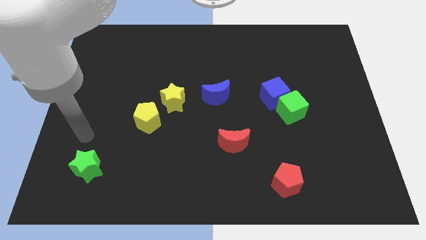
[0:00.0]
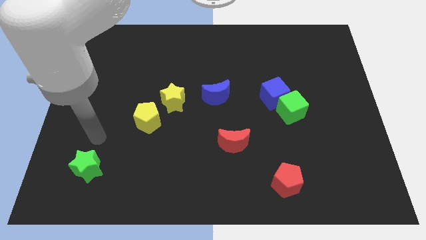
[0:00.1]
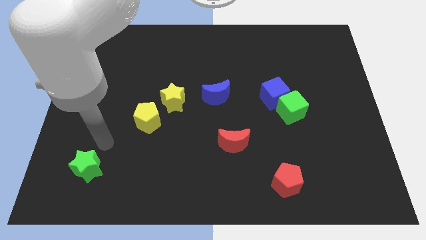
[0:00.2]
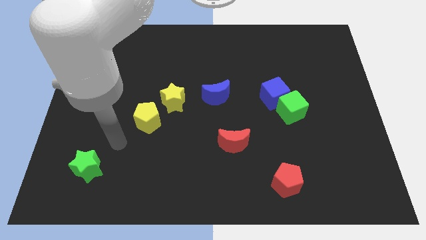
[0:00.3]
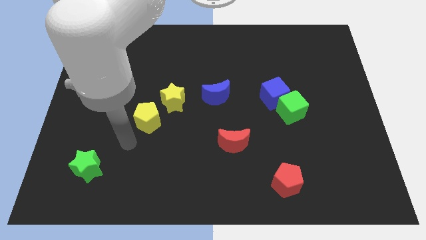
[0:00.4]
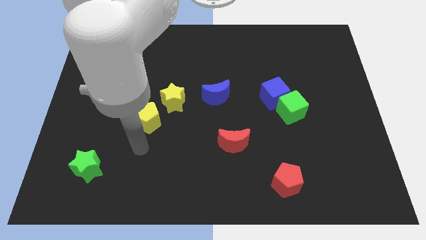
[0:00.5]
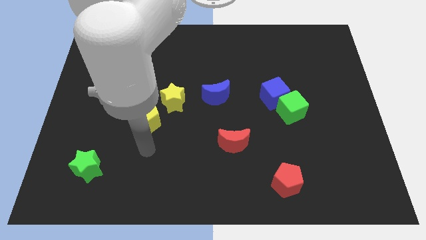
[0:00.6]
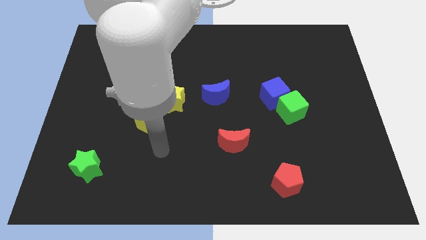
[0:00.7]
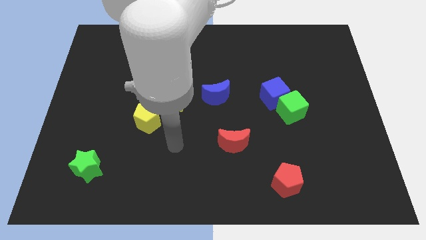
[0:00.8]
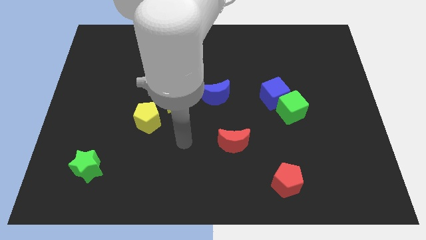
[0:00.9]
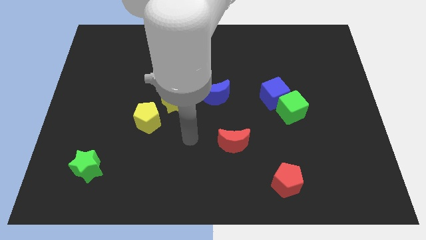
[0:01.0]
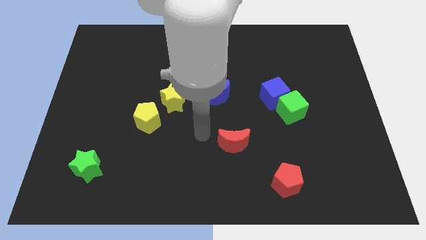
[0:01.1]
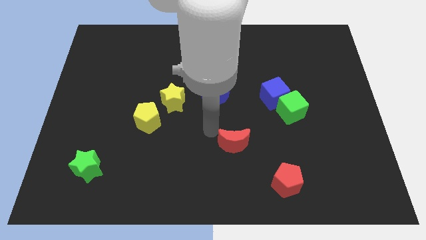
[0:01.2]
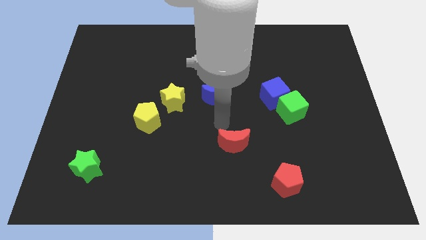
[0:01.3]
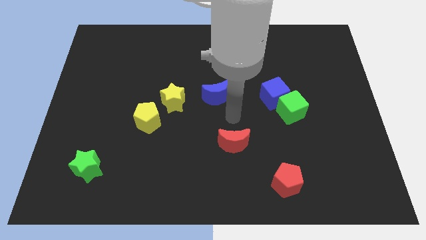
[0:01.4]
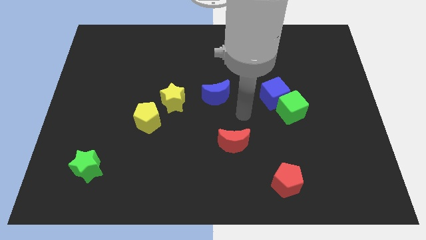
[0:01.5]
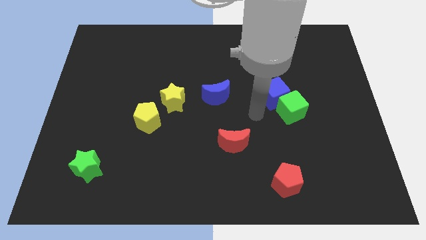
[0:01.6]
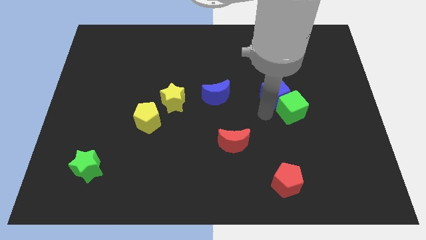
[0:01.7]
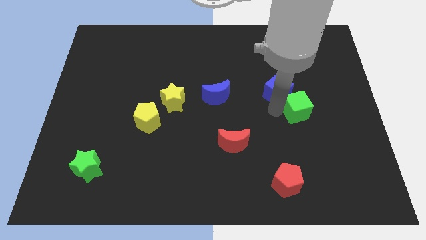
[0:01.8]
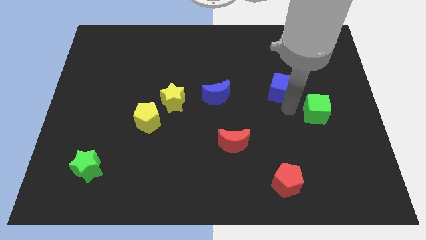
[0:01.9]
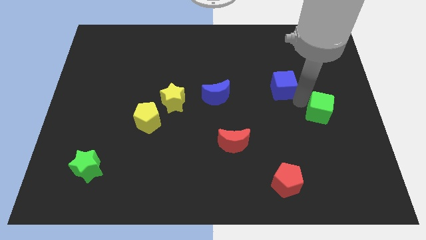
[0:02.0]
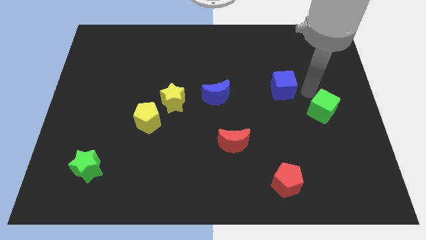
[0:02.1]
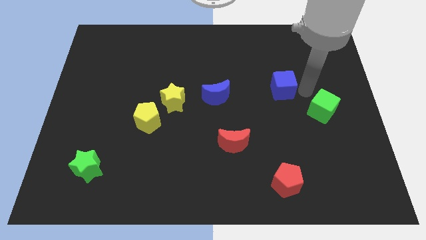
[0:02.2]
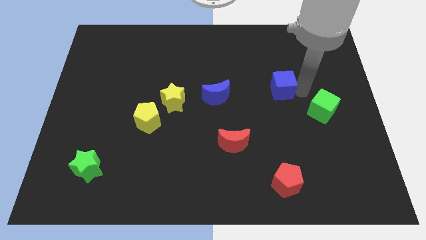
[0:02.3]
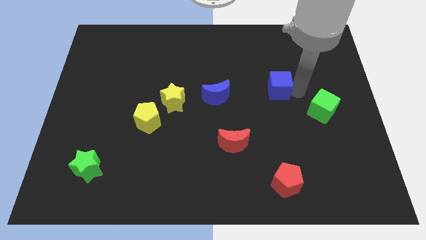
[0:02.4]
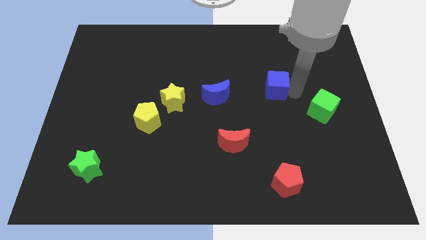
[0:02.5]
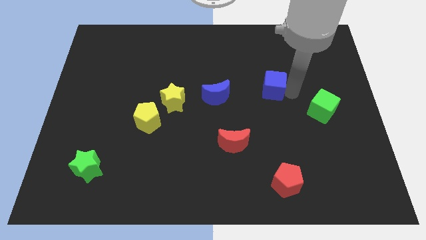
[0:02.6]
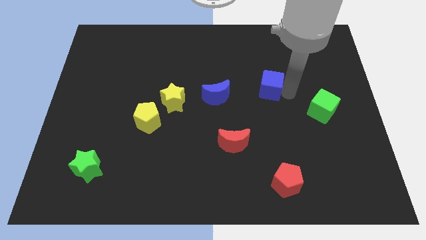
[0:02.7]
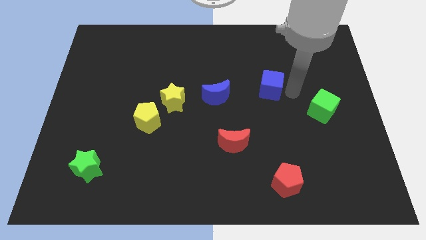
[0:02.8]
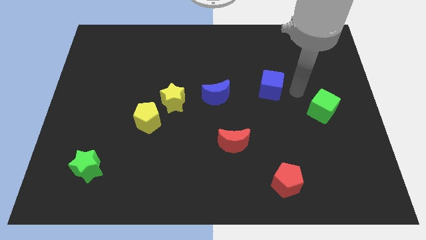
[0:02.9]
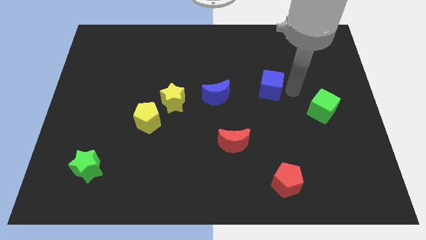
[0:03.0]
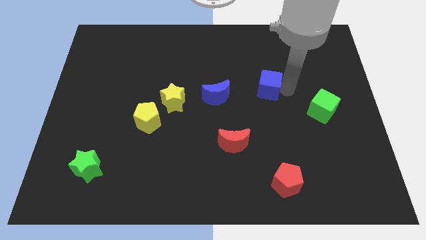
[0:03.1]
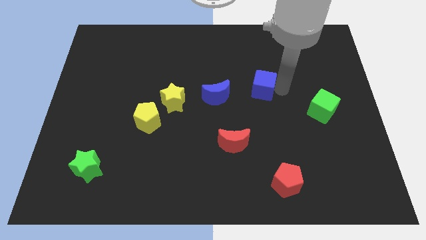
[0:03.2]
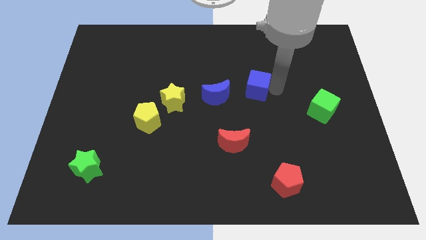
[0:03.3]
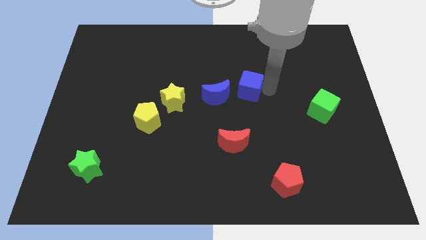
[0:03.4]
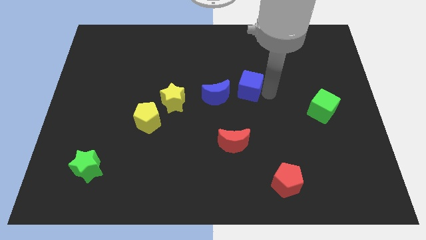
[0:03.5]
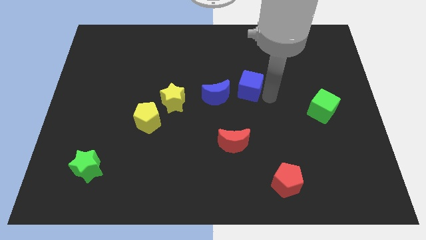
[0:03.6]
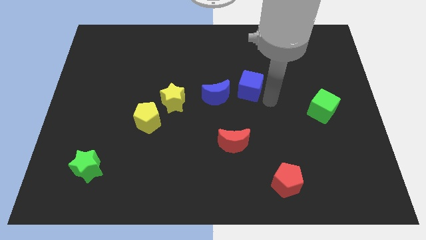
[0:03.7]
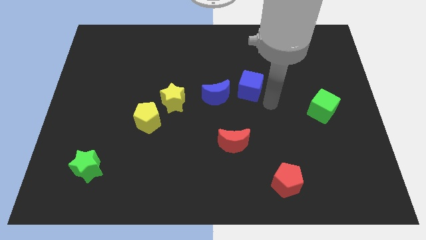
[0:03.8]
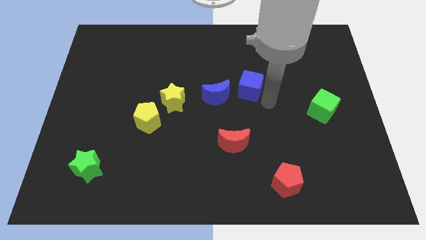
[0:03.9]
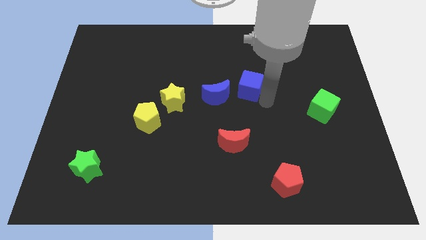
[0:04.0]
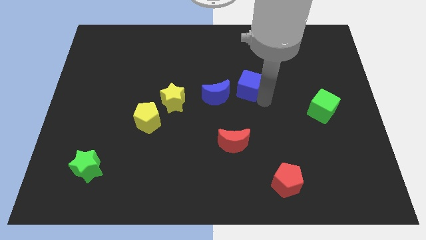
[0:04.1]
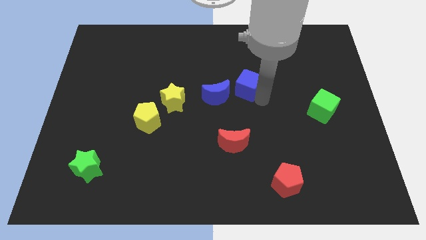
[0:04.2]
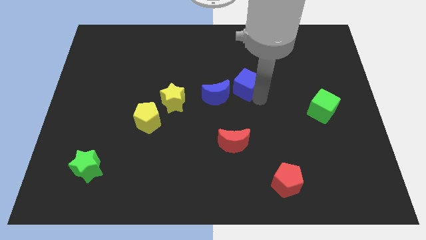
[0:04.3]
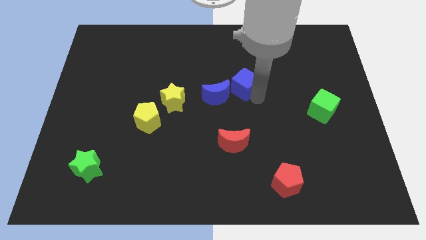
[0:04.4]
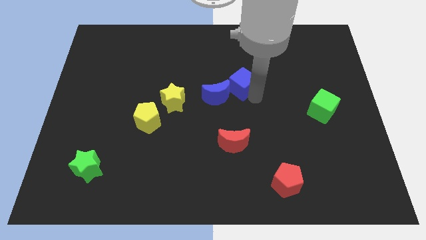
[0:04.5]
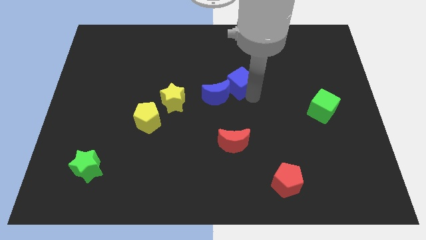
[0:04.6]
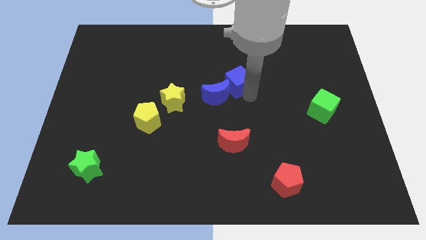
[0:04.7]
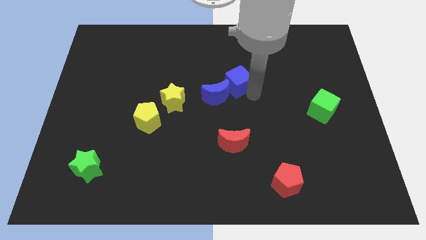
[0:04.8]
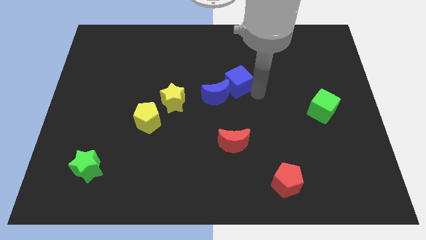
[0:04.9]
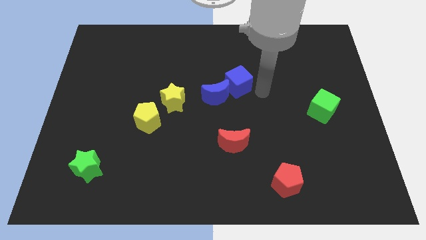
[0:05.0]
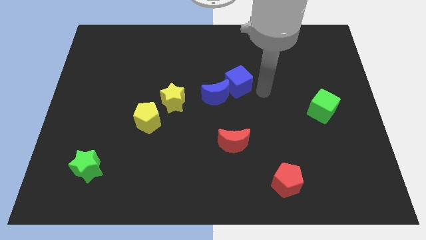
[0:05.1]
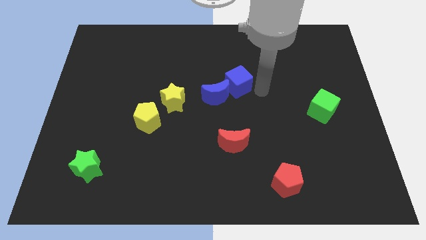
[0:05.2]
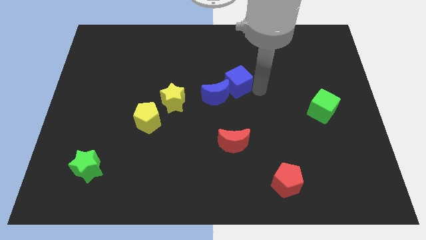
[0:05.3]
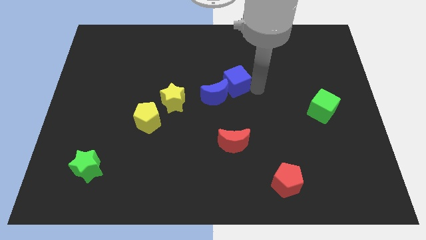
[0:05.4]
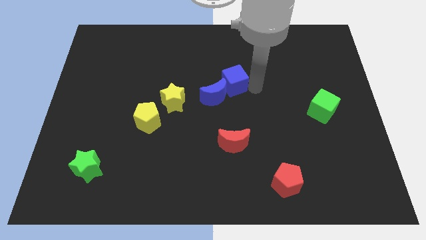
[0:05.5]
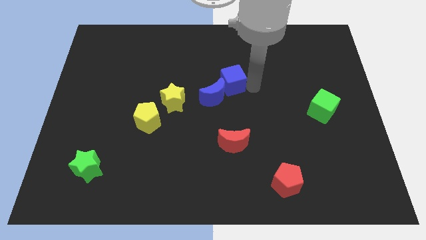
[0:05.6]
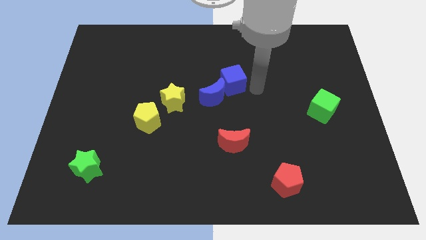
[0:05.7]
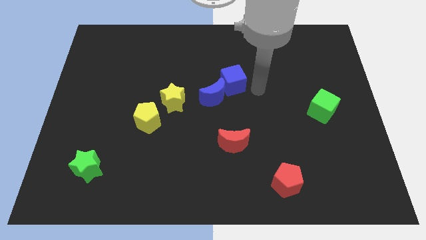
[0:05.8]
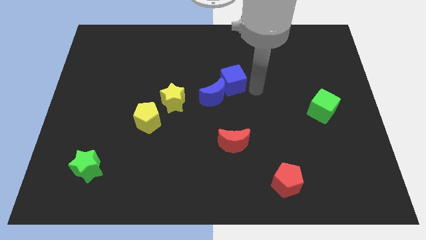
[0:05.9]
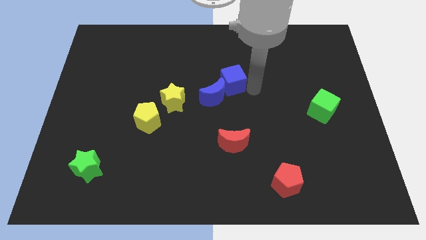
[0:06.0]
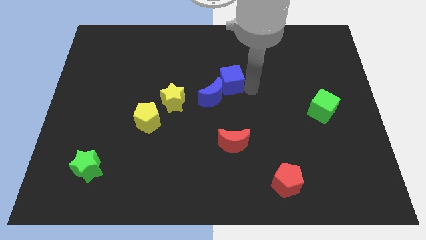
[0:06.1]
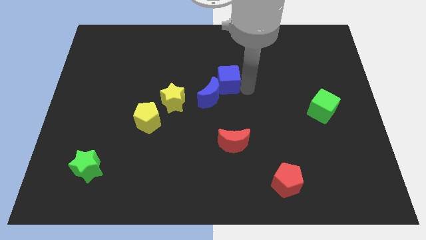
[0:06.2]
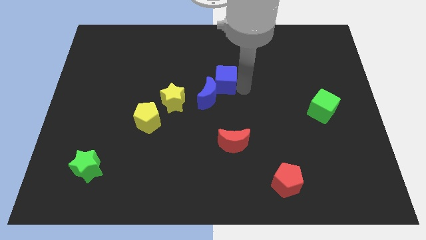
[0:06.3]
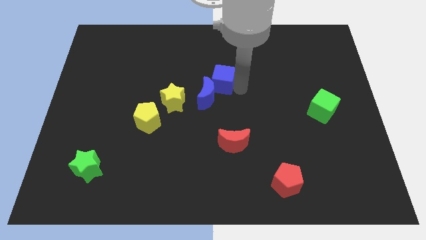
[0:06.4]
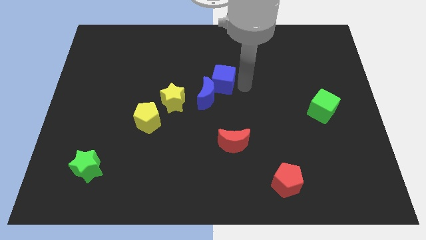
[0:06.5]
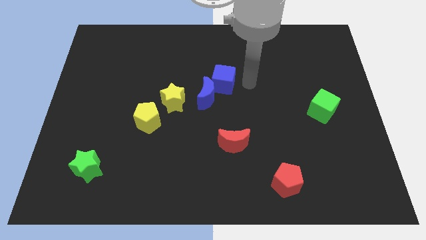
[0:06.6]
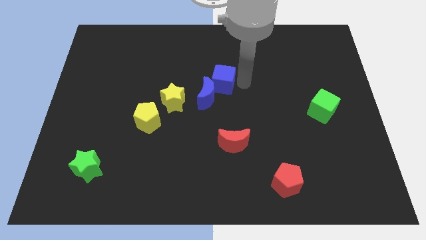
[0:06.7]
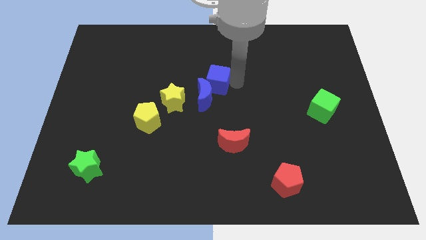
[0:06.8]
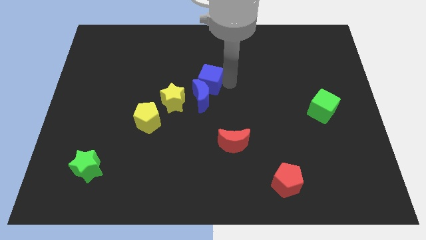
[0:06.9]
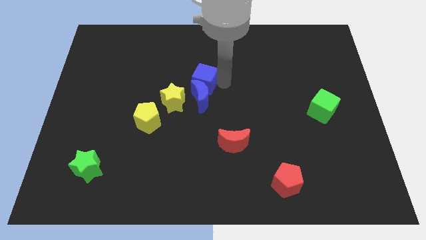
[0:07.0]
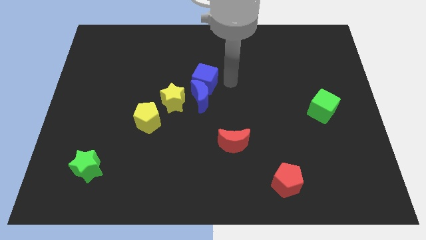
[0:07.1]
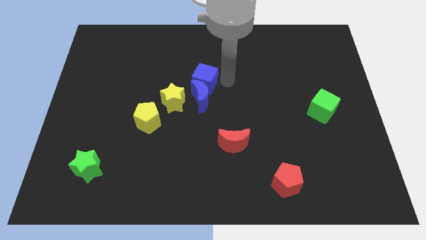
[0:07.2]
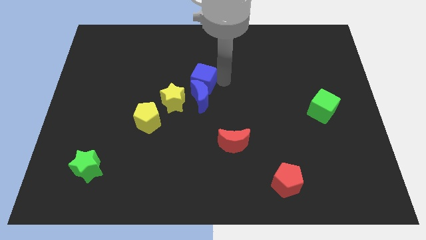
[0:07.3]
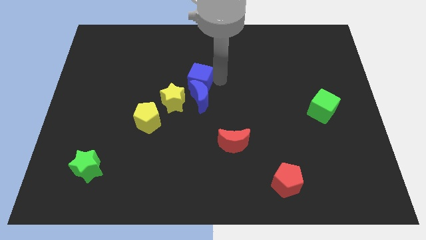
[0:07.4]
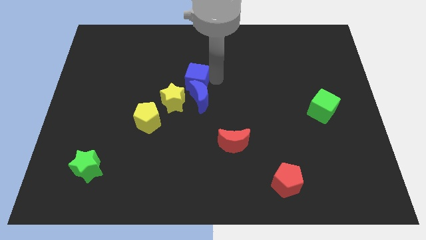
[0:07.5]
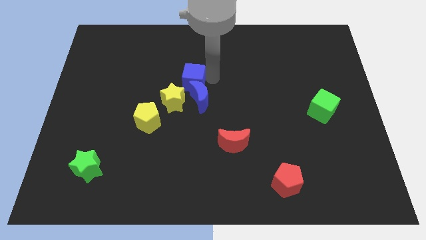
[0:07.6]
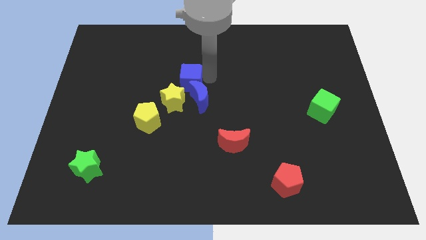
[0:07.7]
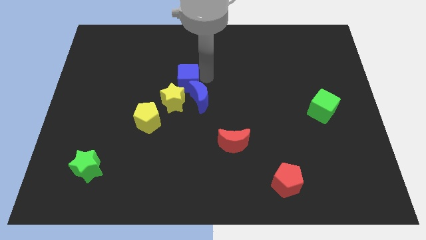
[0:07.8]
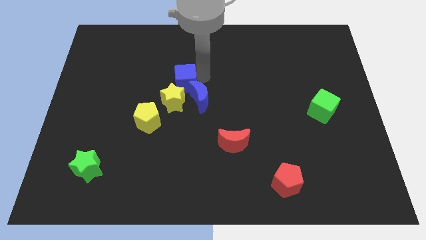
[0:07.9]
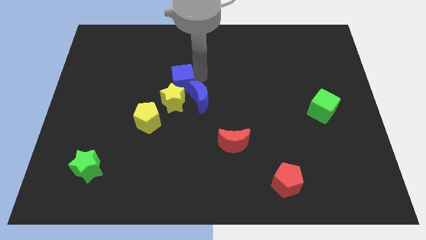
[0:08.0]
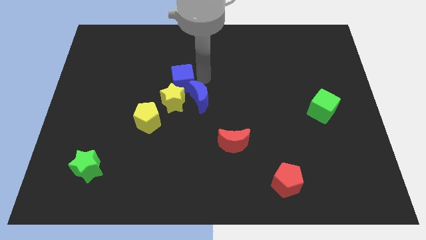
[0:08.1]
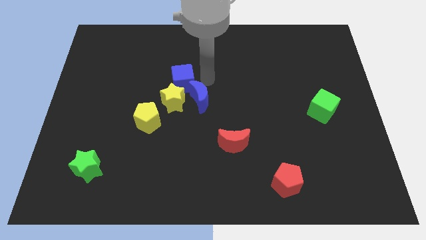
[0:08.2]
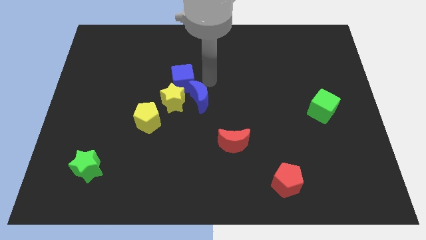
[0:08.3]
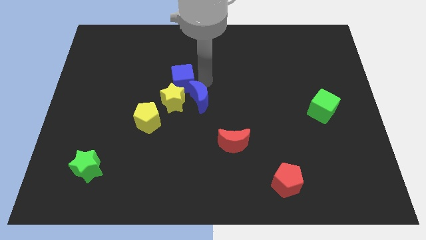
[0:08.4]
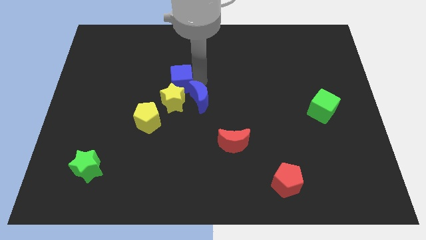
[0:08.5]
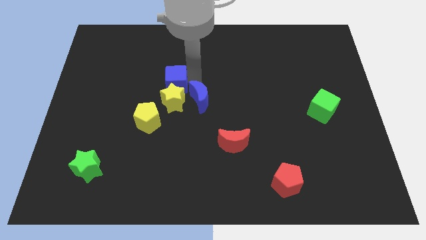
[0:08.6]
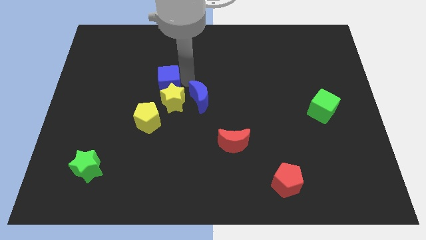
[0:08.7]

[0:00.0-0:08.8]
move the blue cube to the left side of the blue moon
